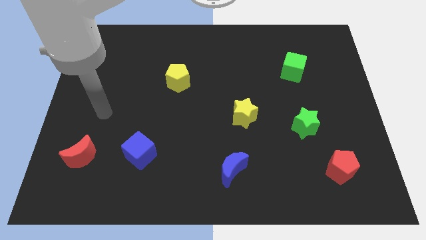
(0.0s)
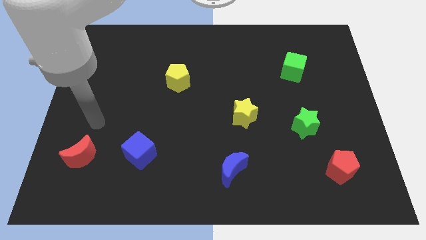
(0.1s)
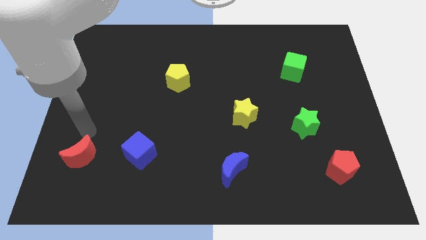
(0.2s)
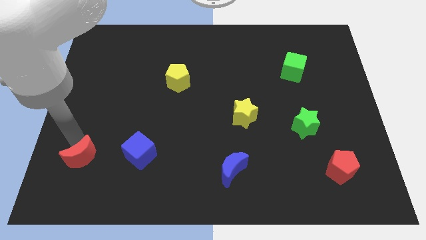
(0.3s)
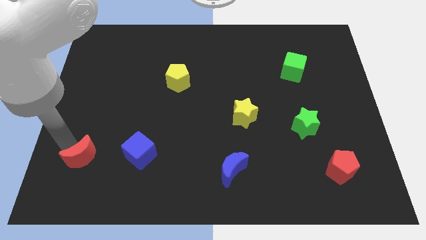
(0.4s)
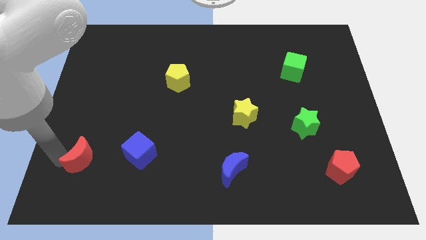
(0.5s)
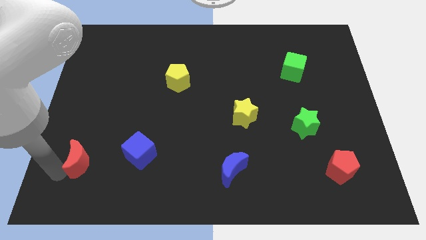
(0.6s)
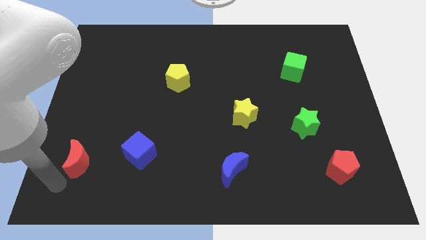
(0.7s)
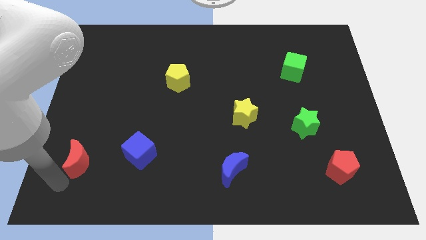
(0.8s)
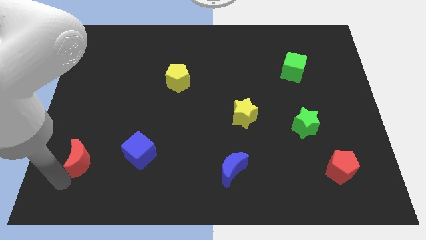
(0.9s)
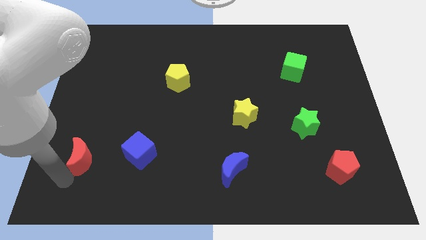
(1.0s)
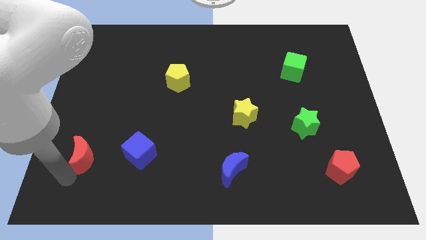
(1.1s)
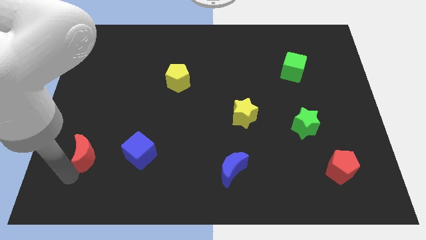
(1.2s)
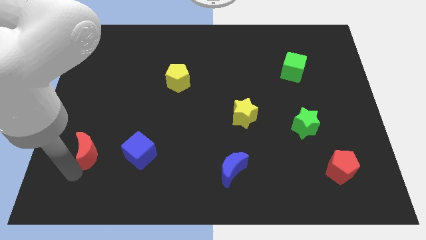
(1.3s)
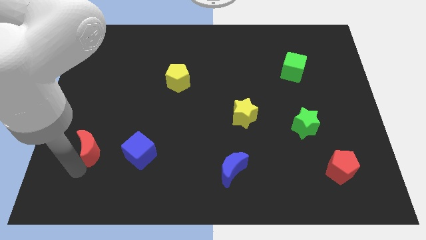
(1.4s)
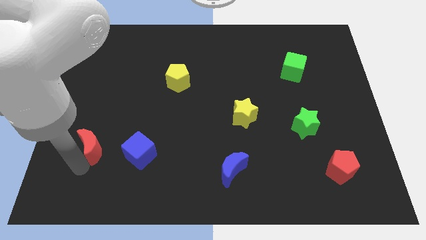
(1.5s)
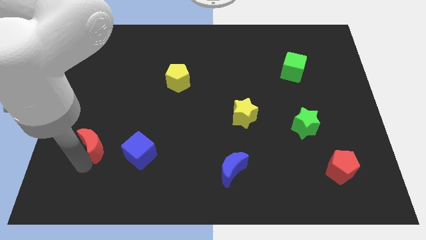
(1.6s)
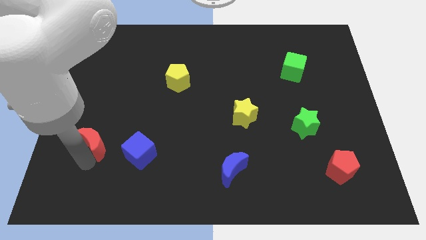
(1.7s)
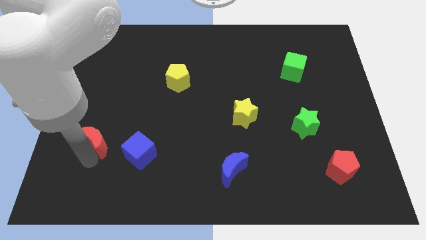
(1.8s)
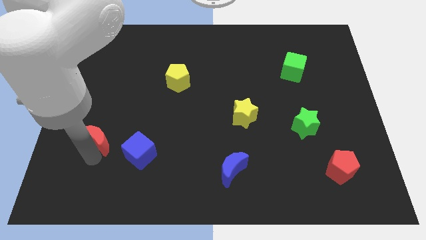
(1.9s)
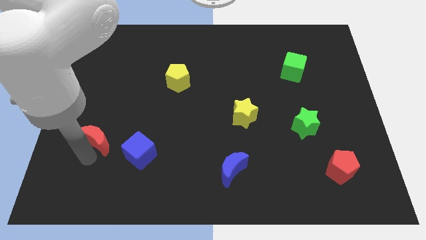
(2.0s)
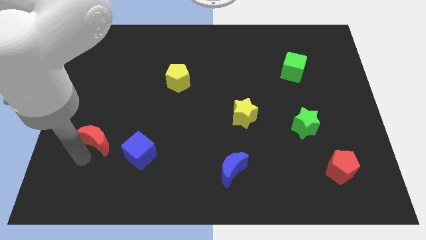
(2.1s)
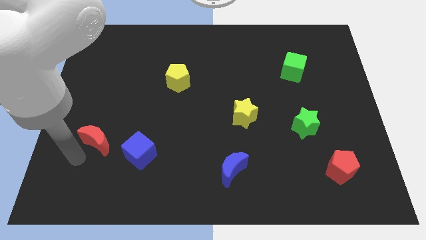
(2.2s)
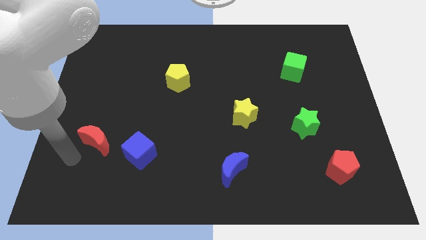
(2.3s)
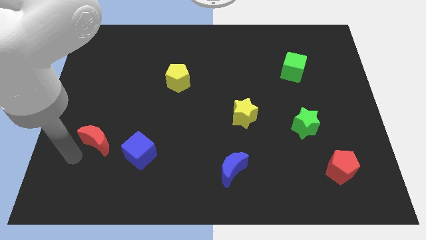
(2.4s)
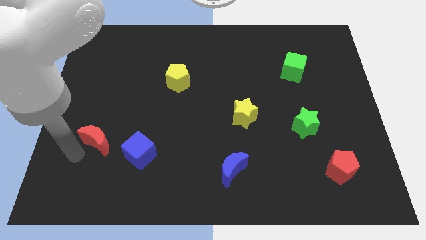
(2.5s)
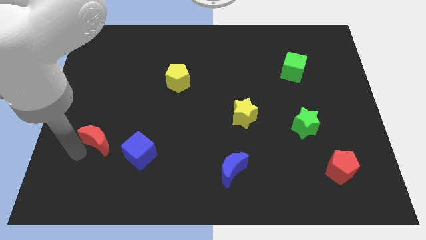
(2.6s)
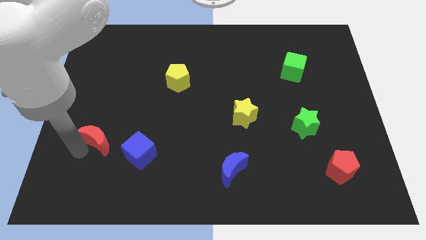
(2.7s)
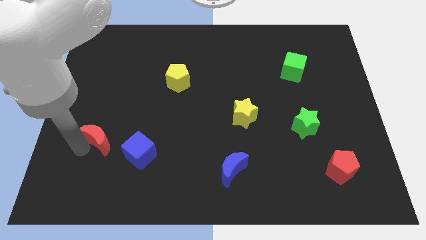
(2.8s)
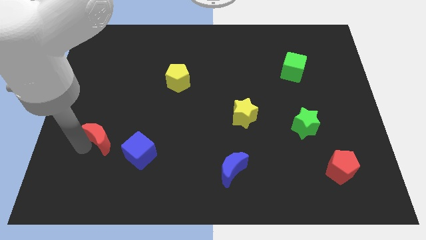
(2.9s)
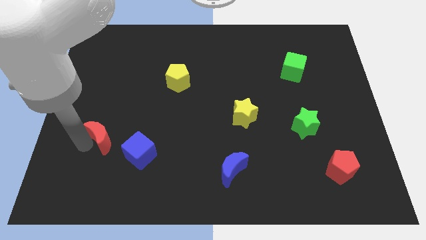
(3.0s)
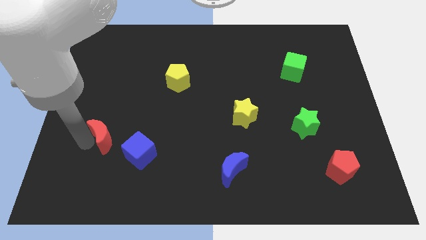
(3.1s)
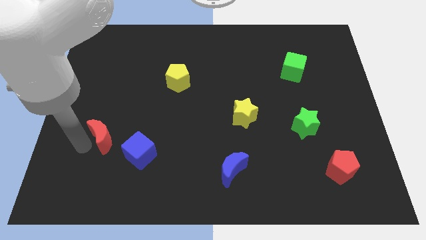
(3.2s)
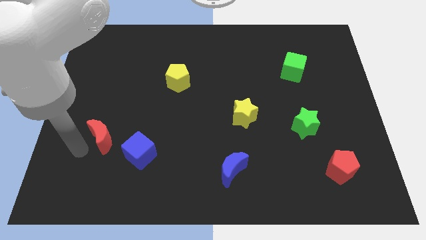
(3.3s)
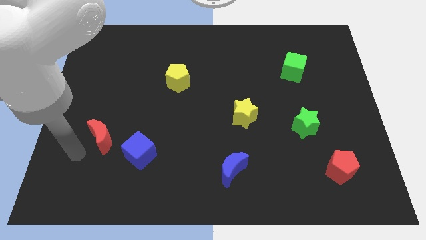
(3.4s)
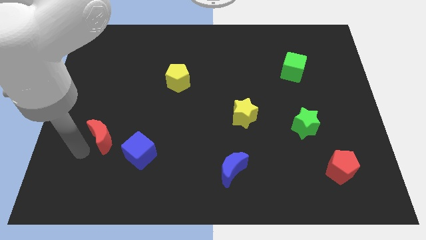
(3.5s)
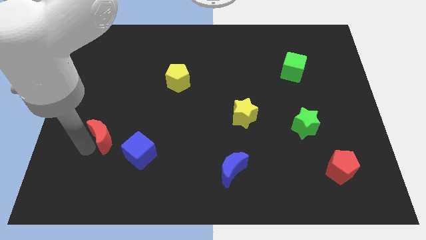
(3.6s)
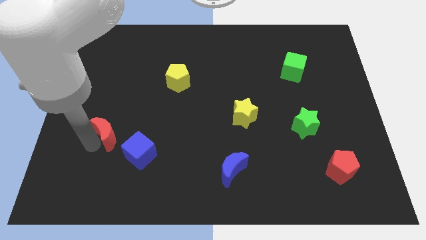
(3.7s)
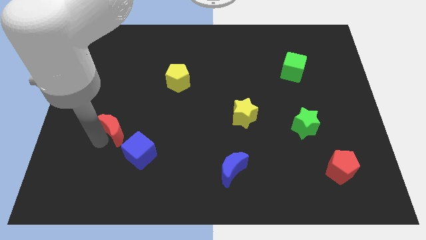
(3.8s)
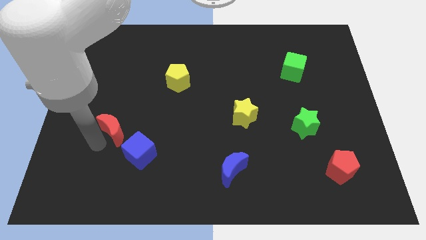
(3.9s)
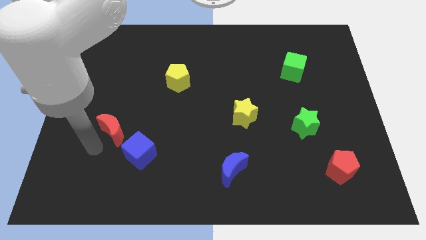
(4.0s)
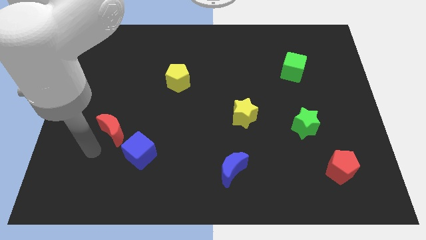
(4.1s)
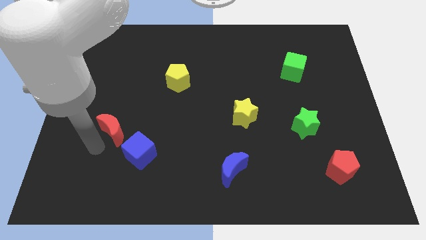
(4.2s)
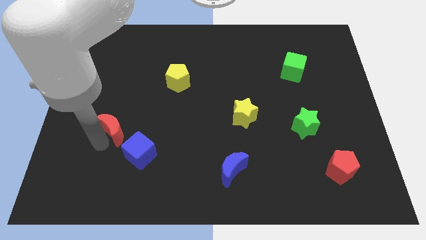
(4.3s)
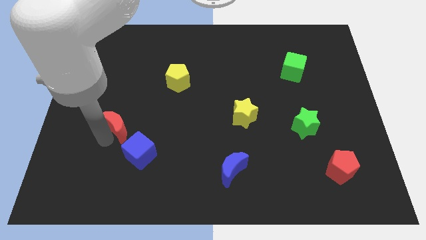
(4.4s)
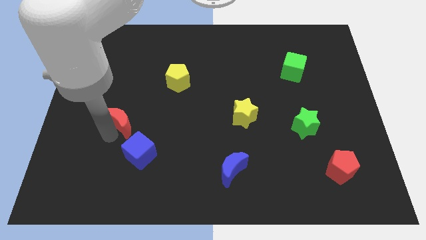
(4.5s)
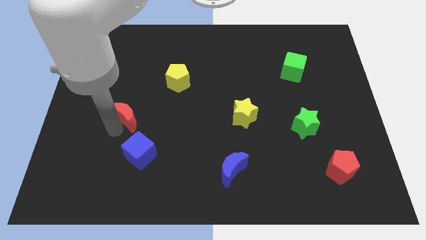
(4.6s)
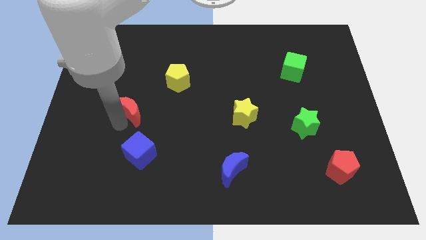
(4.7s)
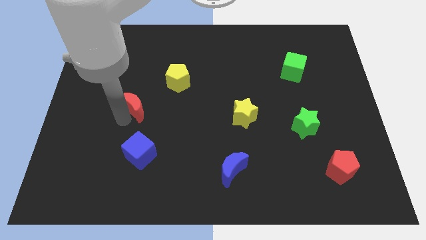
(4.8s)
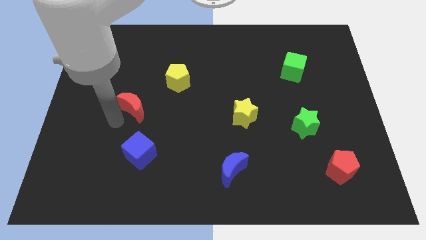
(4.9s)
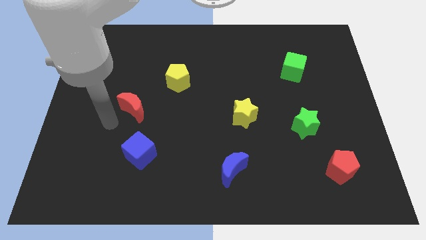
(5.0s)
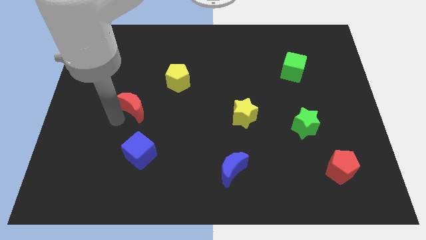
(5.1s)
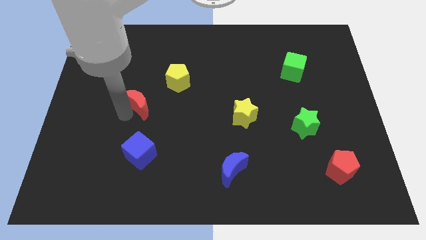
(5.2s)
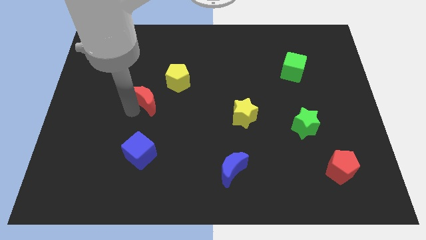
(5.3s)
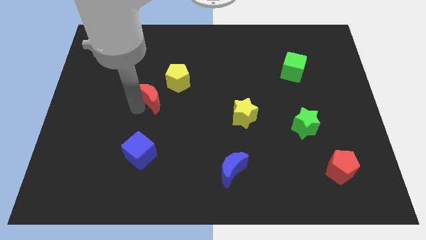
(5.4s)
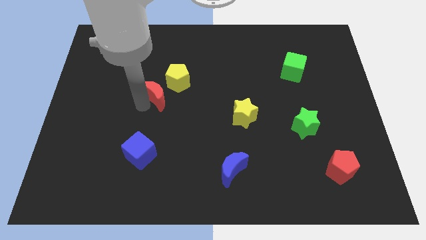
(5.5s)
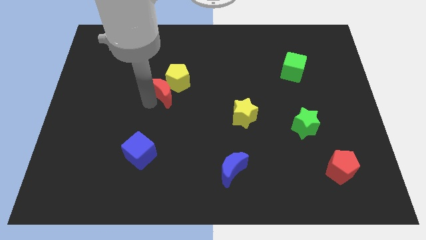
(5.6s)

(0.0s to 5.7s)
push the red moon close to the yellow pentagon

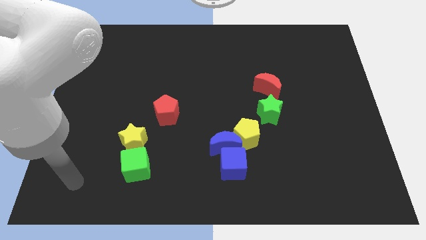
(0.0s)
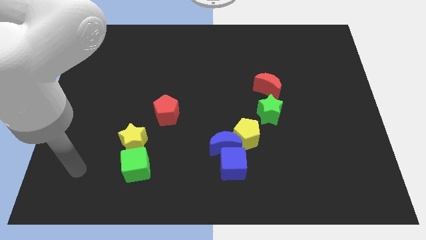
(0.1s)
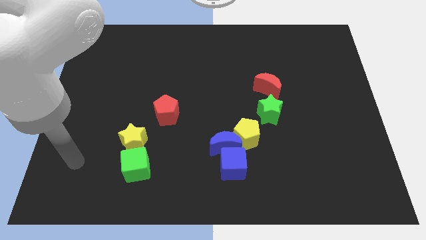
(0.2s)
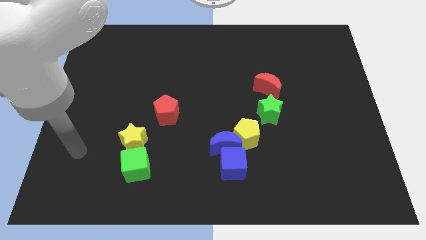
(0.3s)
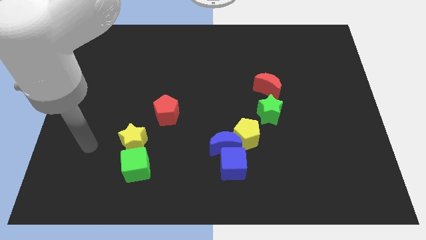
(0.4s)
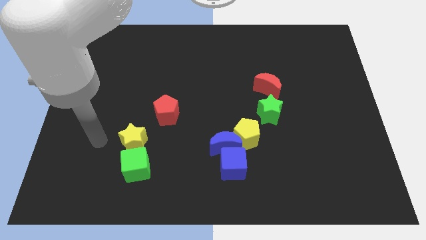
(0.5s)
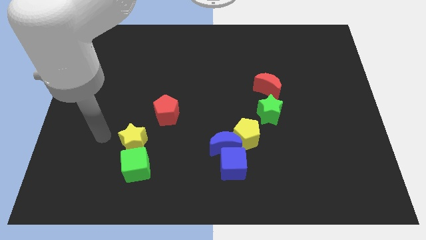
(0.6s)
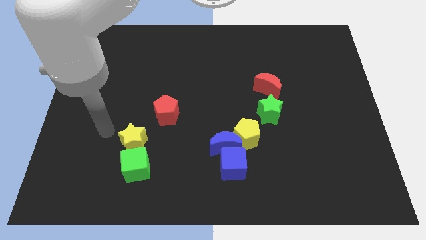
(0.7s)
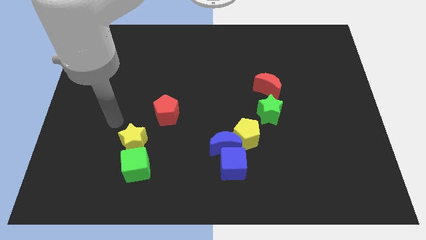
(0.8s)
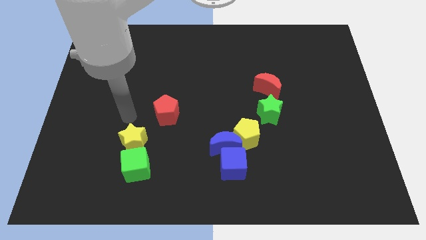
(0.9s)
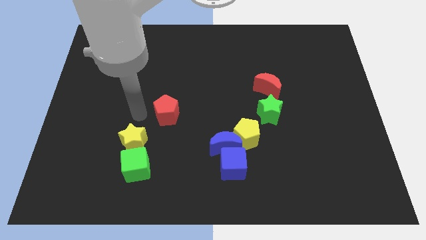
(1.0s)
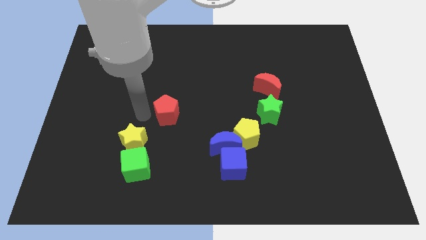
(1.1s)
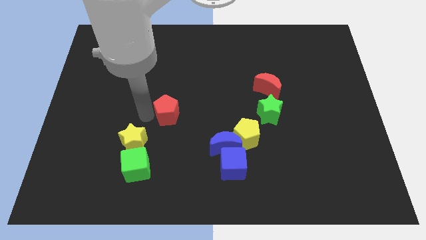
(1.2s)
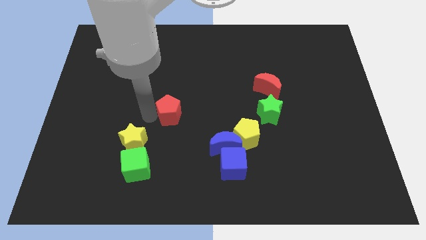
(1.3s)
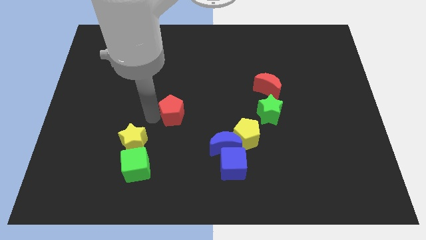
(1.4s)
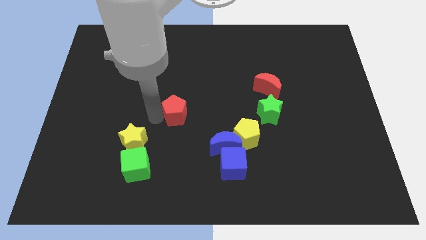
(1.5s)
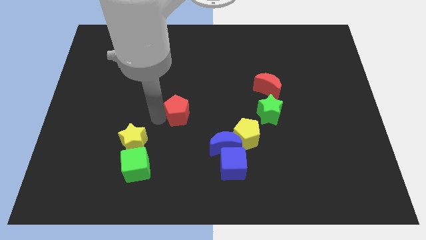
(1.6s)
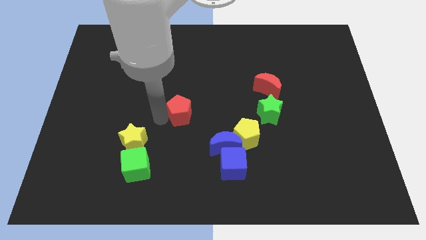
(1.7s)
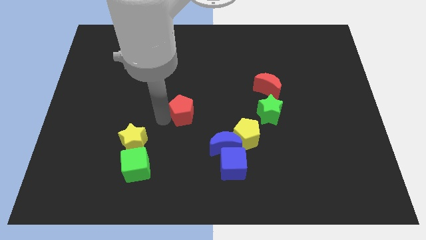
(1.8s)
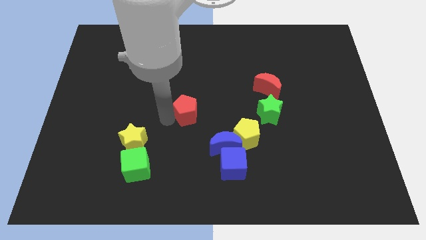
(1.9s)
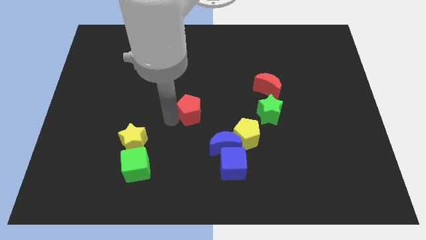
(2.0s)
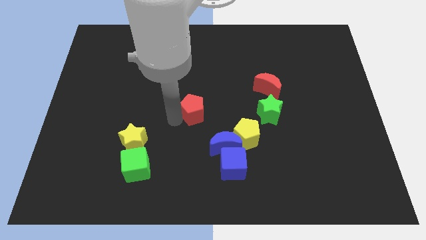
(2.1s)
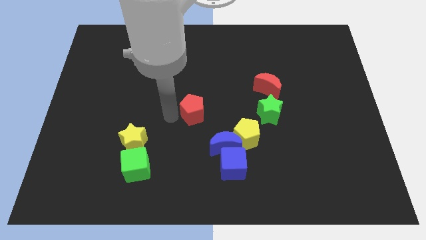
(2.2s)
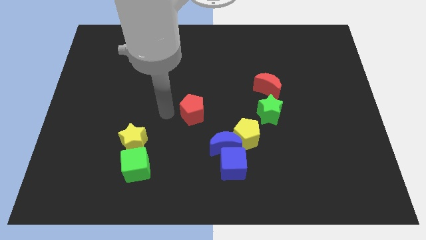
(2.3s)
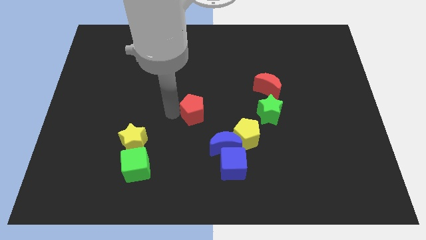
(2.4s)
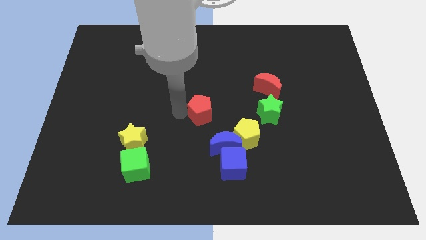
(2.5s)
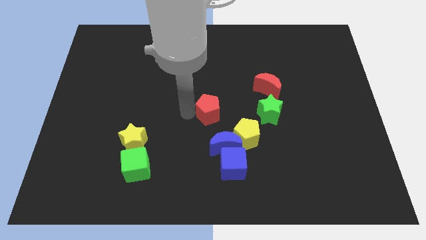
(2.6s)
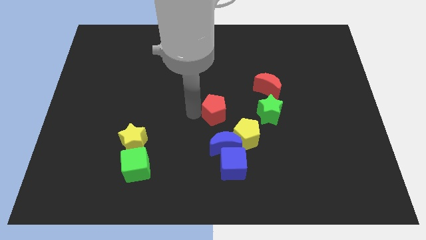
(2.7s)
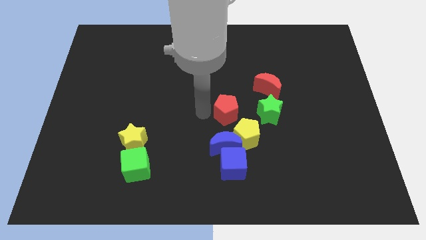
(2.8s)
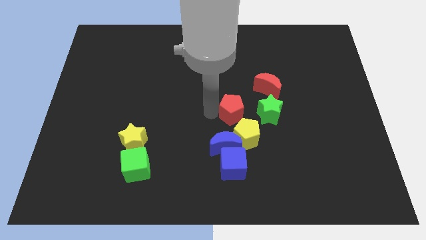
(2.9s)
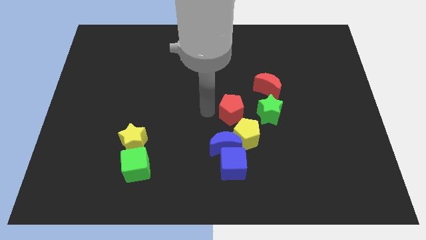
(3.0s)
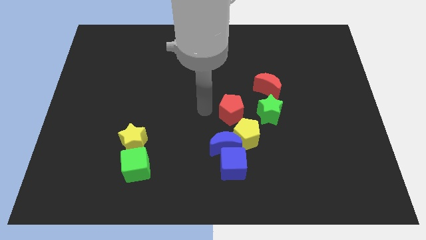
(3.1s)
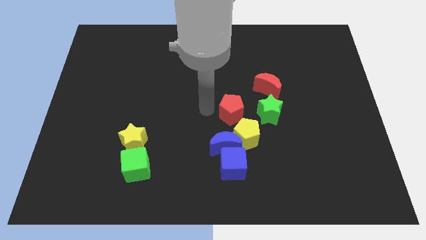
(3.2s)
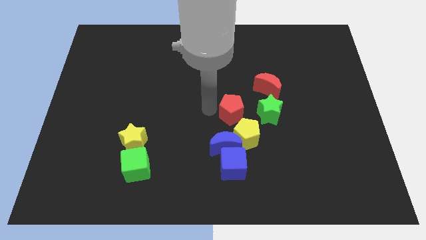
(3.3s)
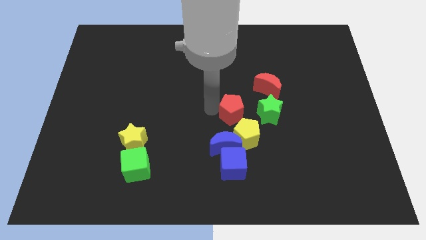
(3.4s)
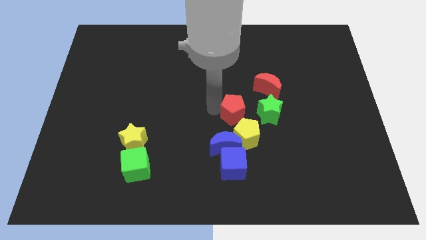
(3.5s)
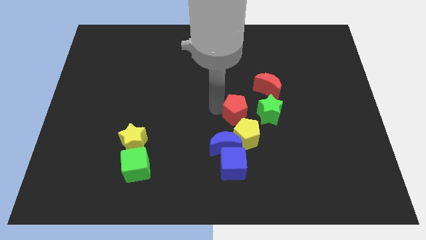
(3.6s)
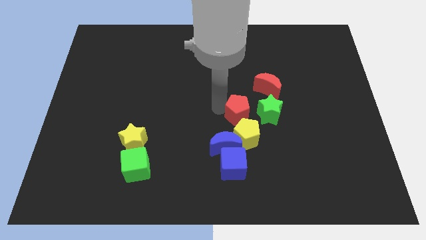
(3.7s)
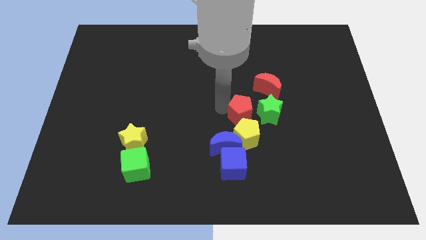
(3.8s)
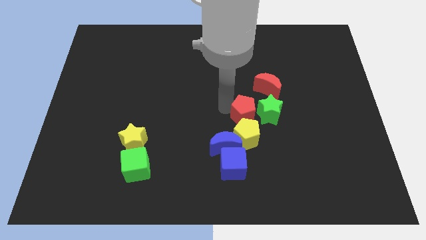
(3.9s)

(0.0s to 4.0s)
put the red pentagon towards the green star
